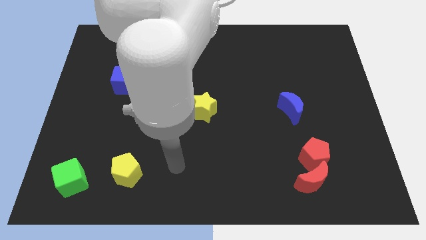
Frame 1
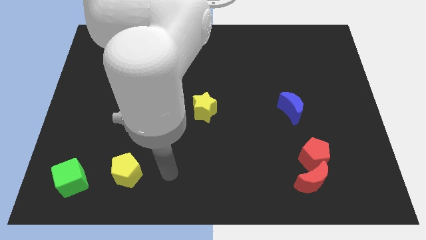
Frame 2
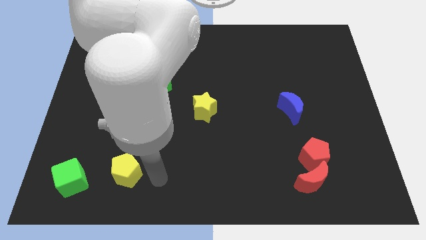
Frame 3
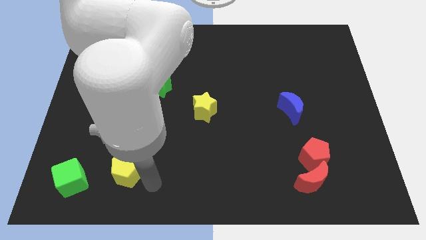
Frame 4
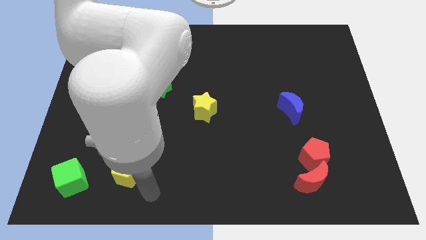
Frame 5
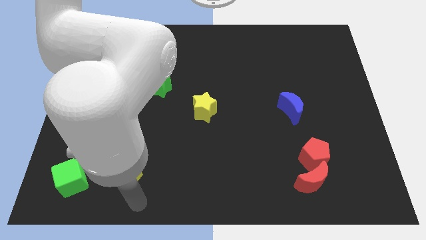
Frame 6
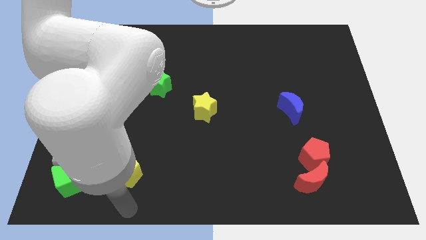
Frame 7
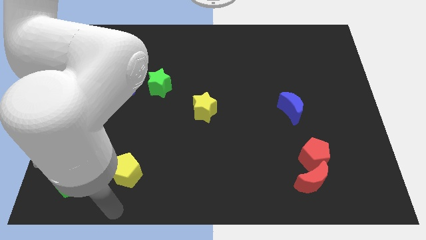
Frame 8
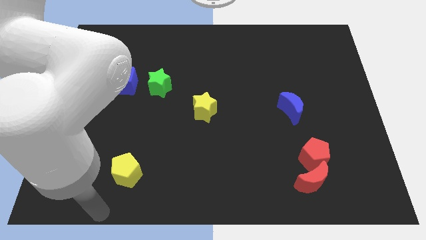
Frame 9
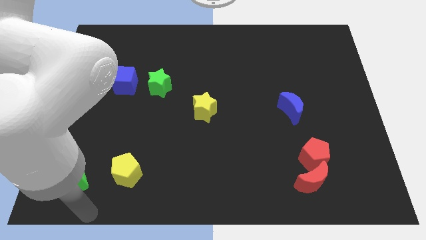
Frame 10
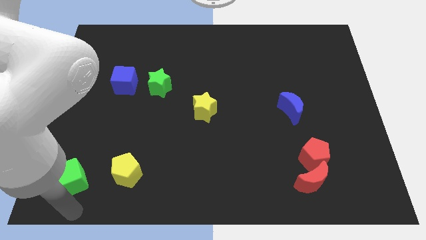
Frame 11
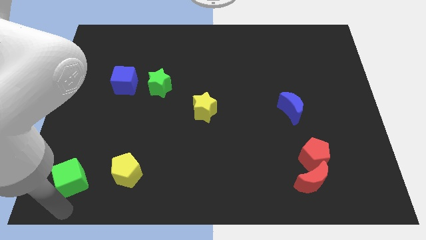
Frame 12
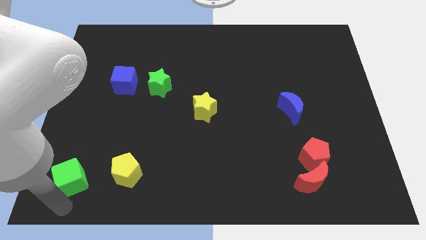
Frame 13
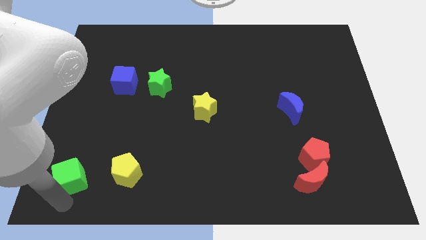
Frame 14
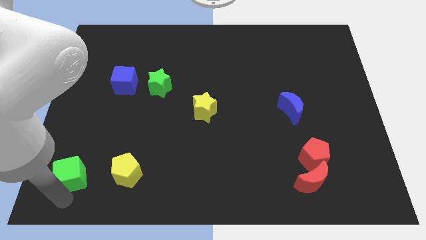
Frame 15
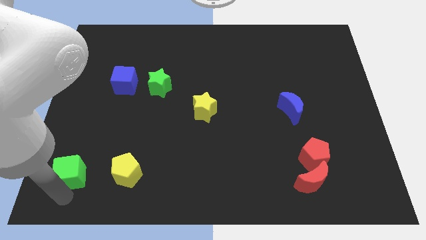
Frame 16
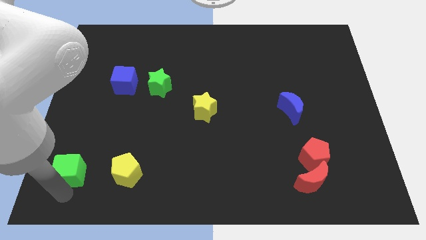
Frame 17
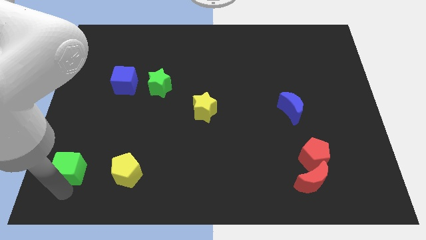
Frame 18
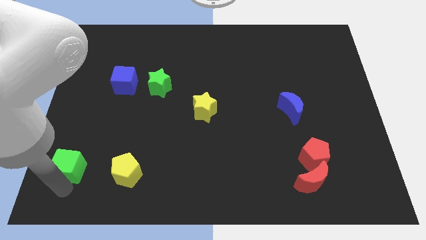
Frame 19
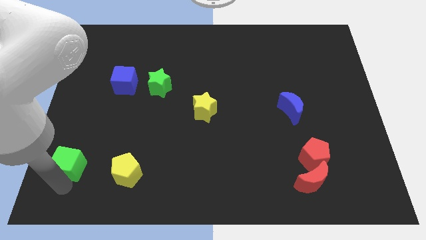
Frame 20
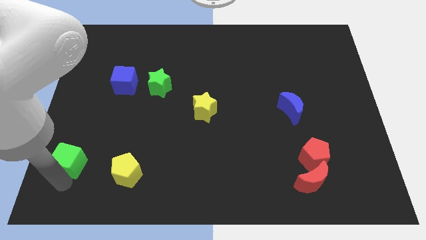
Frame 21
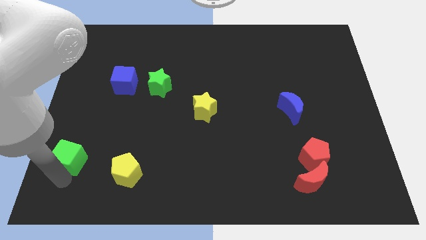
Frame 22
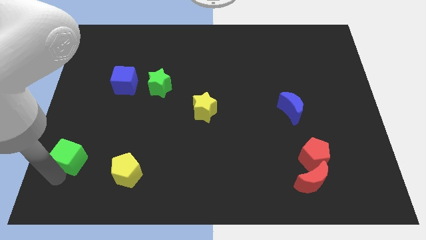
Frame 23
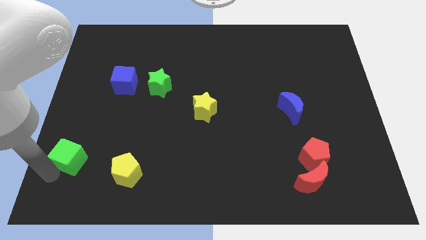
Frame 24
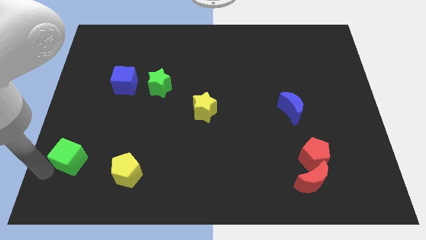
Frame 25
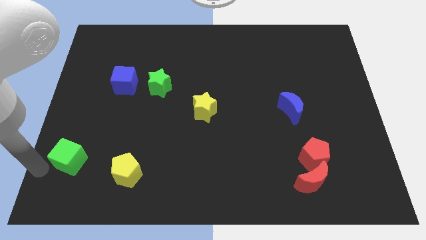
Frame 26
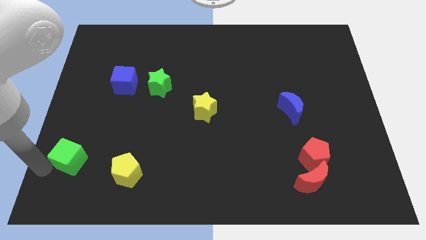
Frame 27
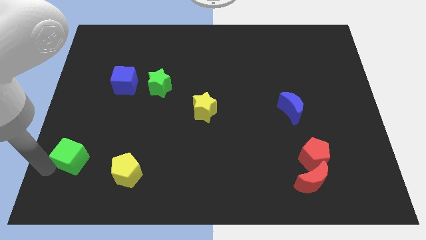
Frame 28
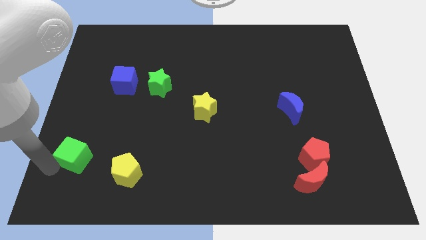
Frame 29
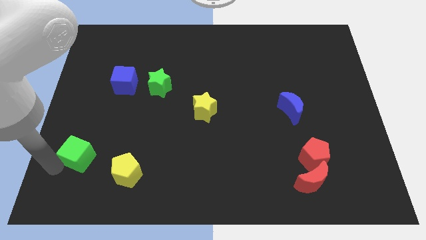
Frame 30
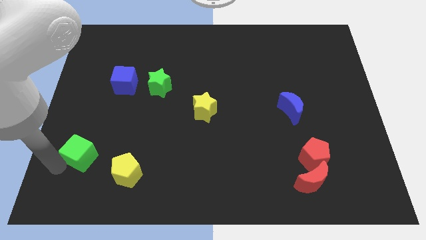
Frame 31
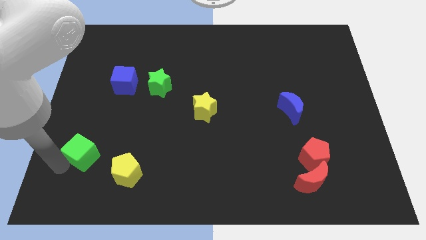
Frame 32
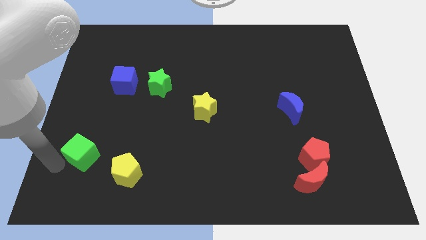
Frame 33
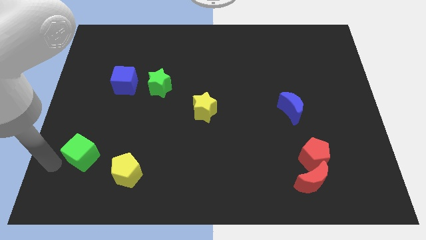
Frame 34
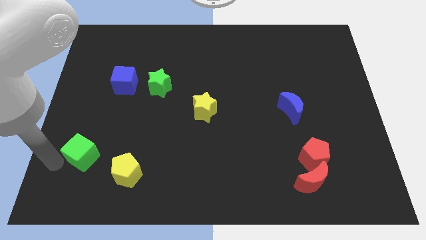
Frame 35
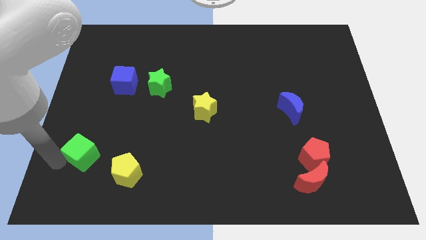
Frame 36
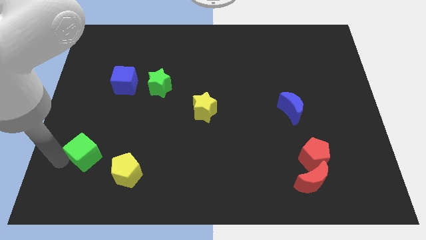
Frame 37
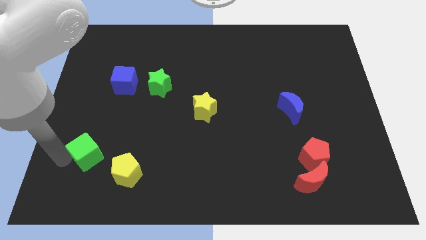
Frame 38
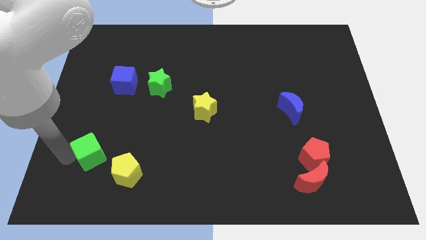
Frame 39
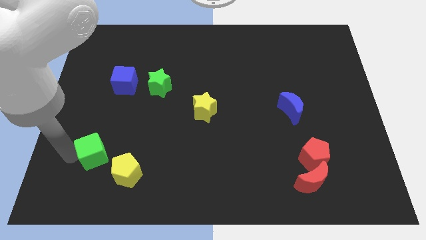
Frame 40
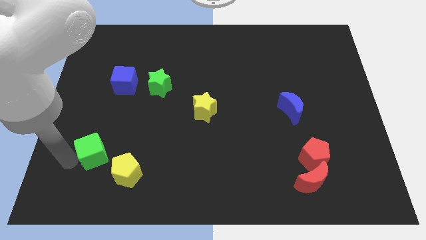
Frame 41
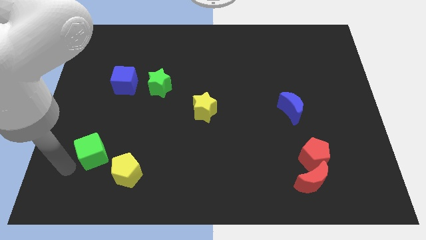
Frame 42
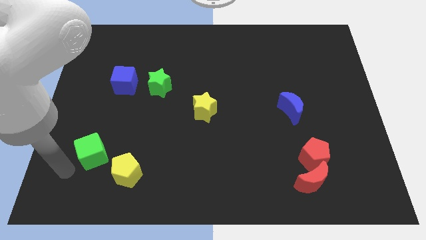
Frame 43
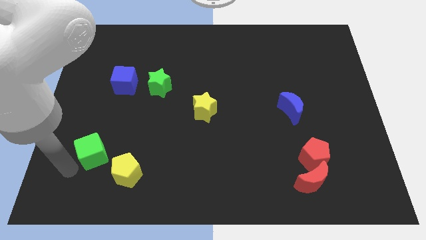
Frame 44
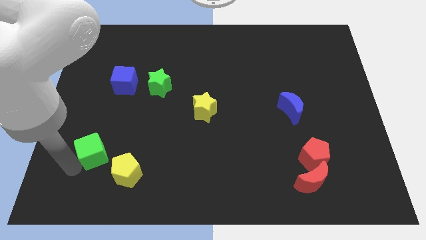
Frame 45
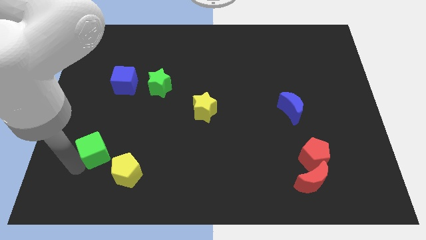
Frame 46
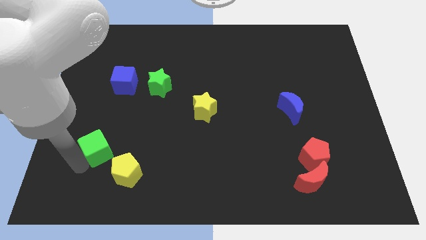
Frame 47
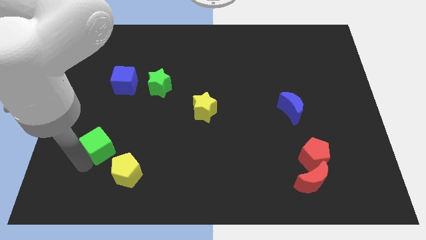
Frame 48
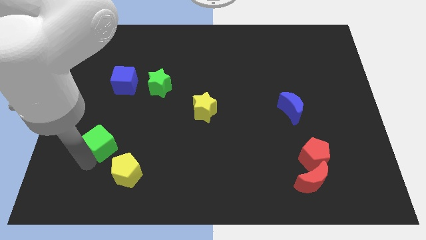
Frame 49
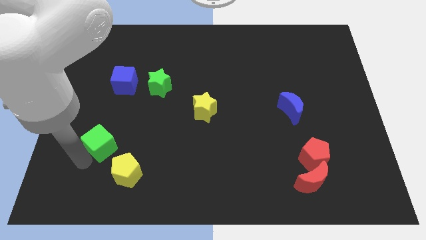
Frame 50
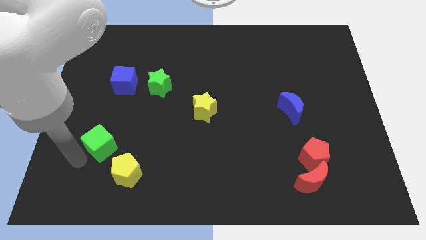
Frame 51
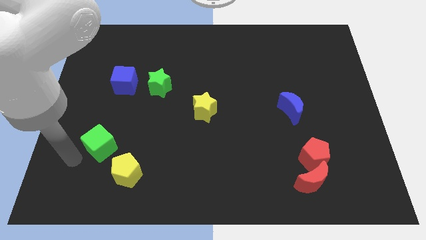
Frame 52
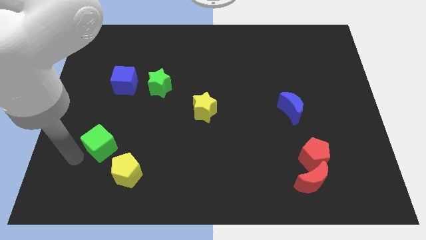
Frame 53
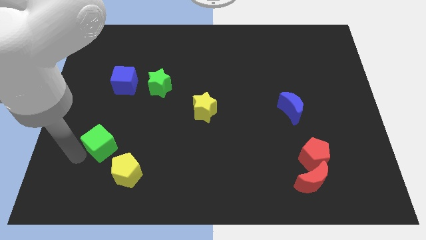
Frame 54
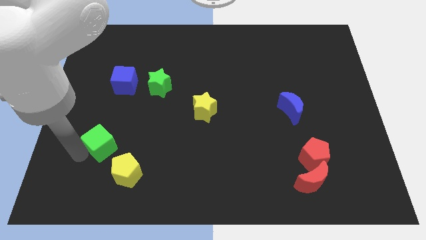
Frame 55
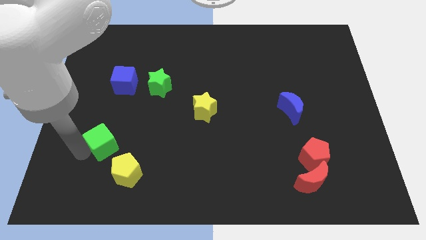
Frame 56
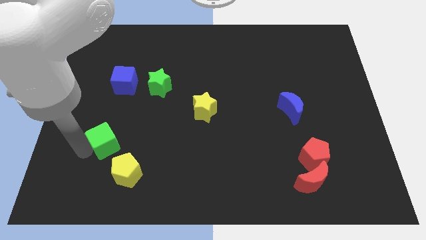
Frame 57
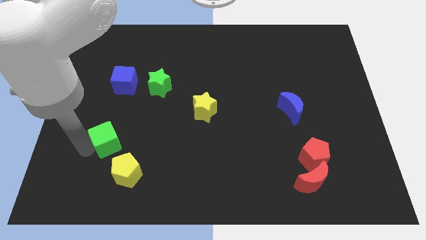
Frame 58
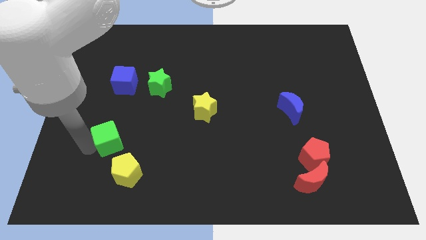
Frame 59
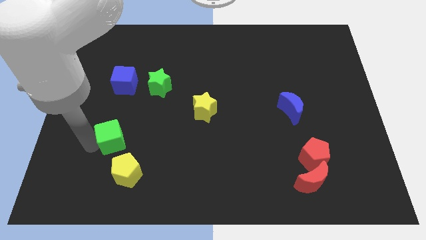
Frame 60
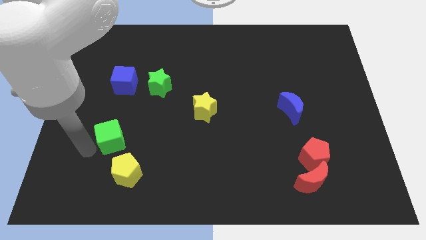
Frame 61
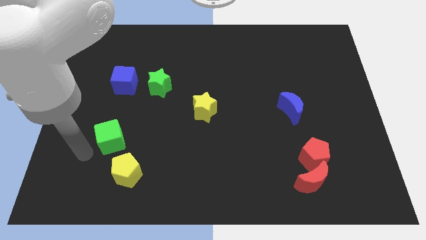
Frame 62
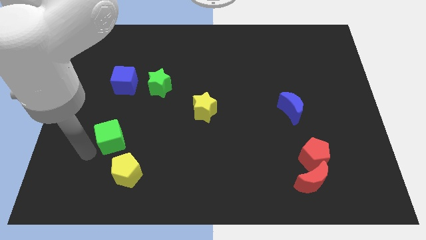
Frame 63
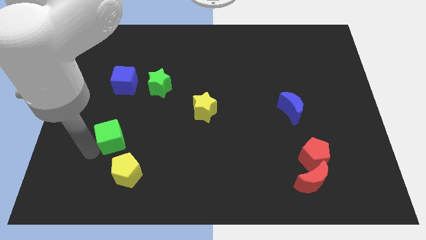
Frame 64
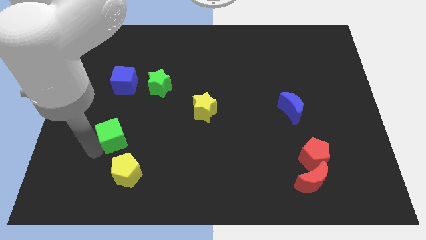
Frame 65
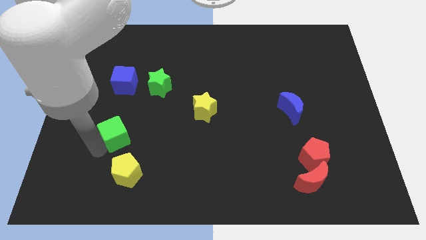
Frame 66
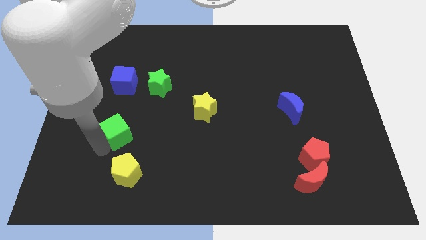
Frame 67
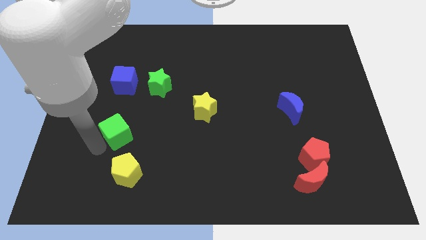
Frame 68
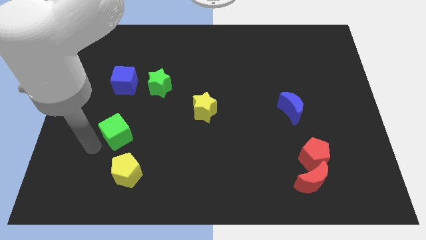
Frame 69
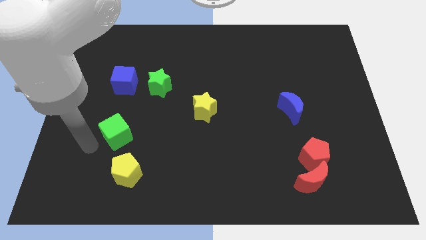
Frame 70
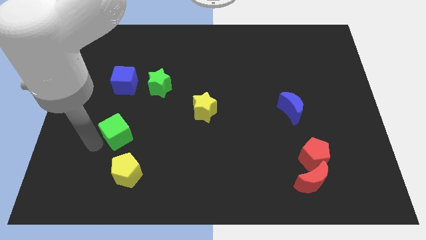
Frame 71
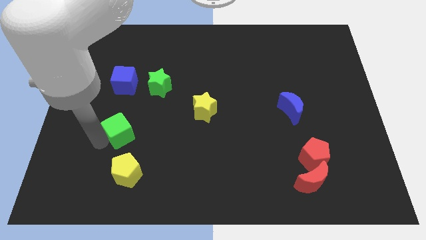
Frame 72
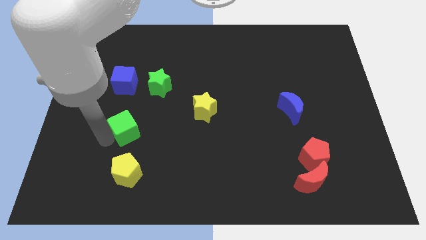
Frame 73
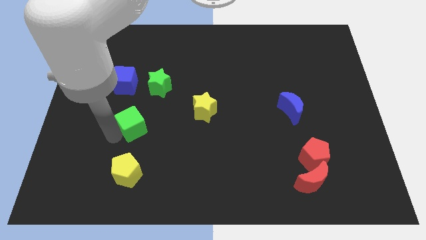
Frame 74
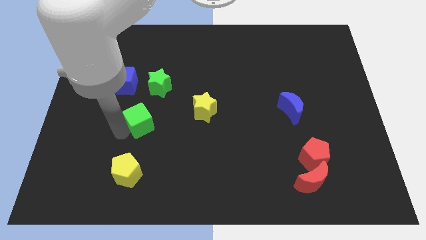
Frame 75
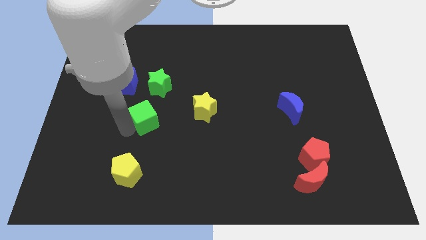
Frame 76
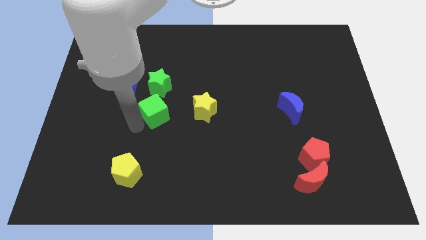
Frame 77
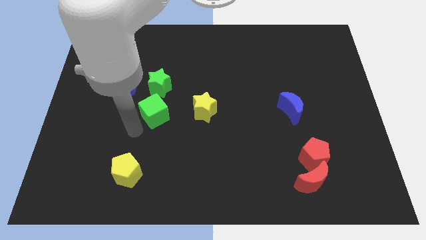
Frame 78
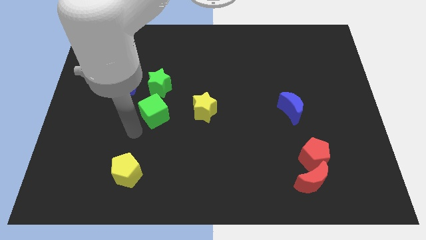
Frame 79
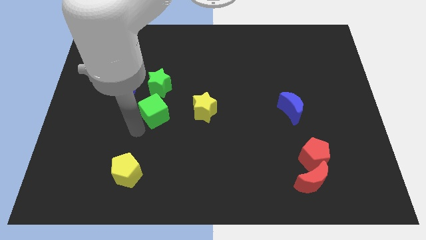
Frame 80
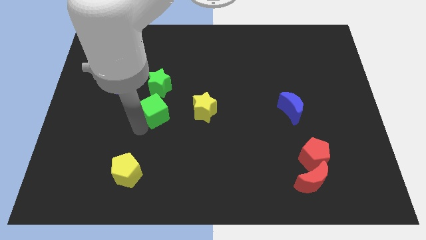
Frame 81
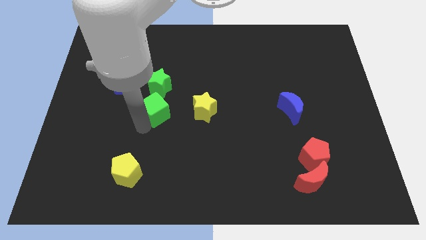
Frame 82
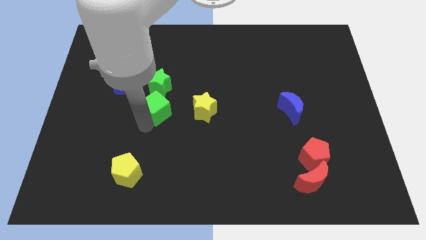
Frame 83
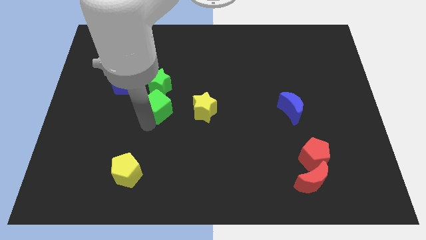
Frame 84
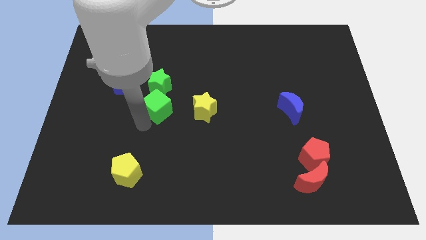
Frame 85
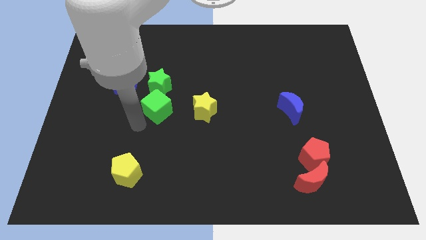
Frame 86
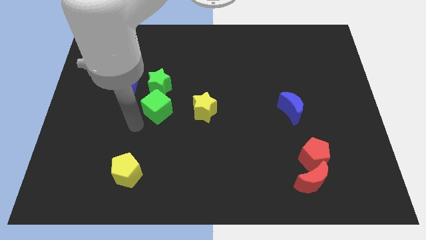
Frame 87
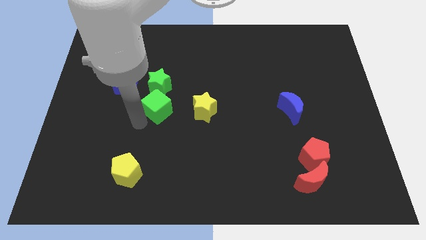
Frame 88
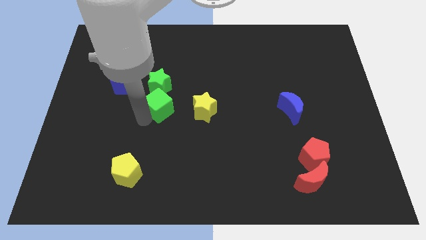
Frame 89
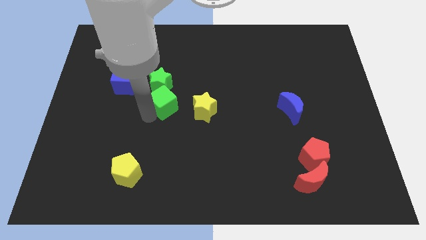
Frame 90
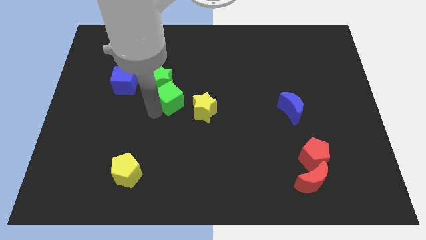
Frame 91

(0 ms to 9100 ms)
put the green cube to the top left side of the yellow star
